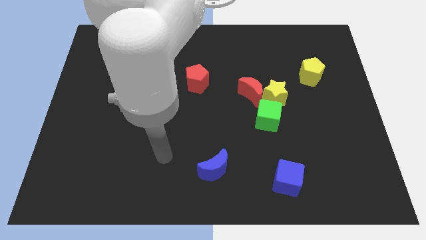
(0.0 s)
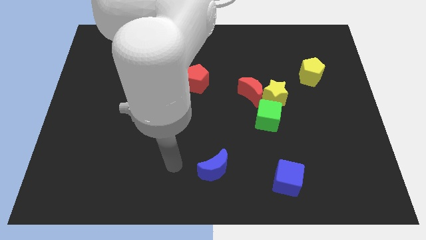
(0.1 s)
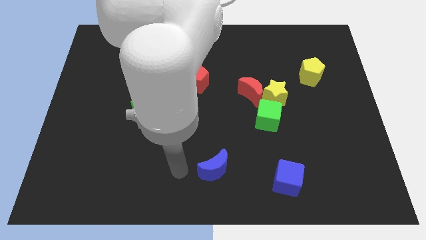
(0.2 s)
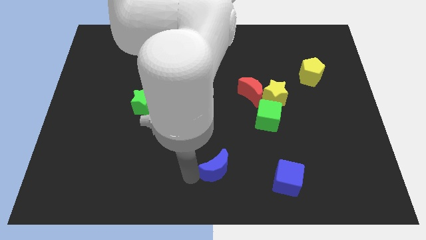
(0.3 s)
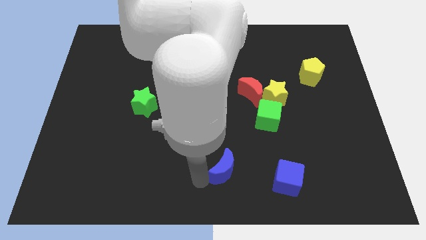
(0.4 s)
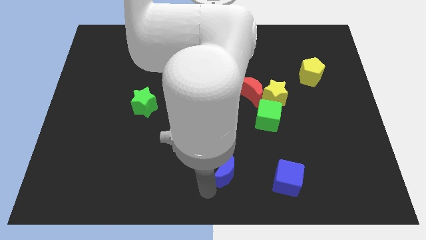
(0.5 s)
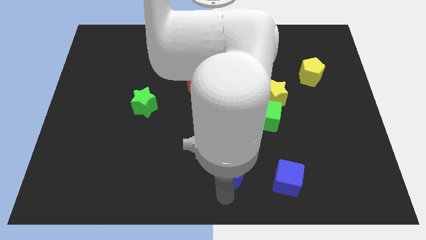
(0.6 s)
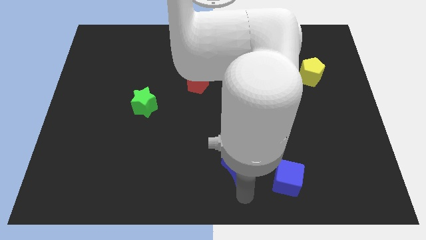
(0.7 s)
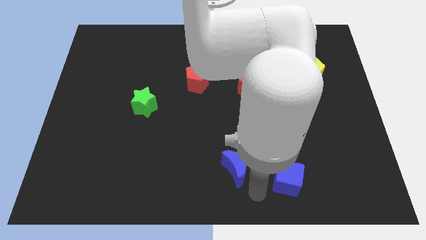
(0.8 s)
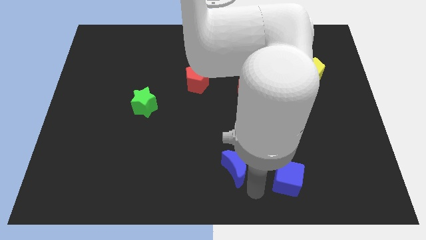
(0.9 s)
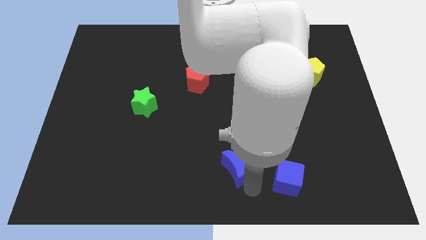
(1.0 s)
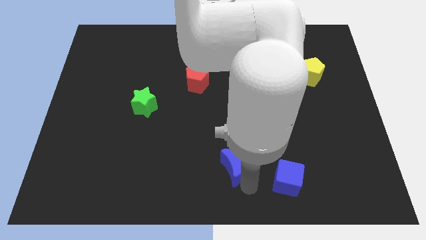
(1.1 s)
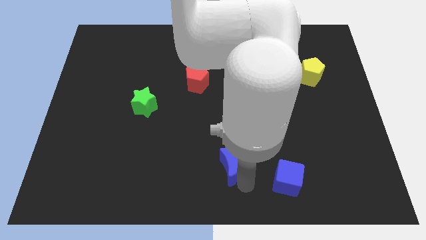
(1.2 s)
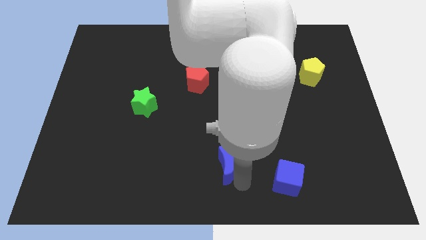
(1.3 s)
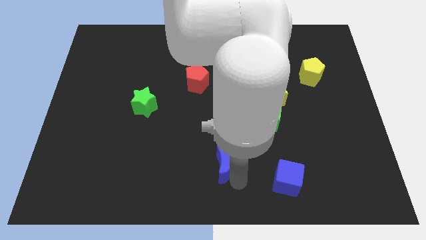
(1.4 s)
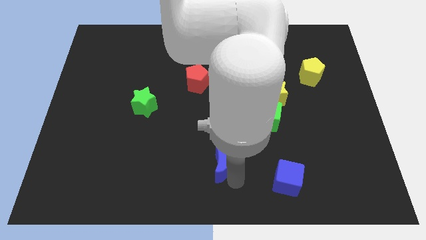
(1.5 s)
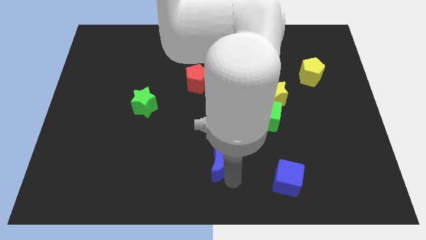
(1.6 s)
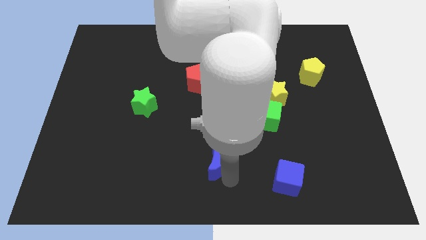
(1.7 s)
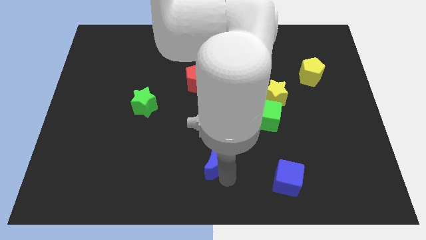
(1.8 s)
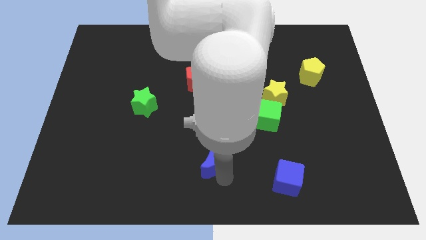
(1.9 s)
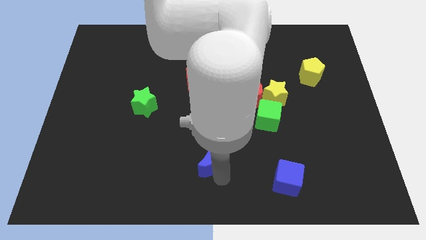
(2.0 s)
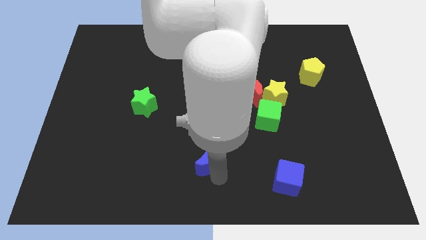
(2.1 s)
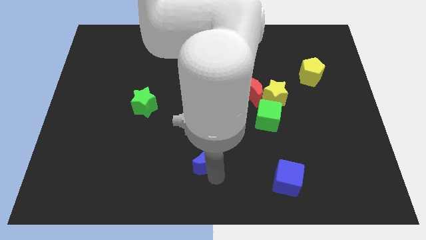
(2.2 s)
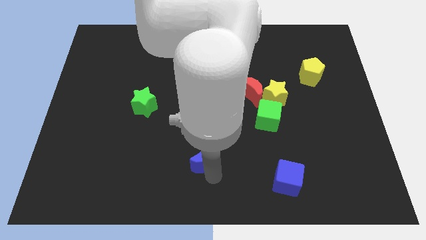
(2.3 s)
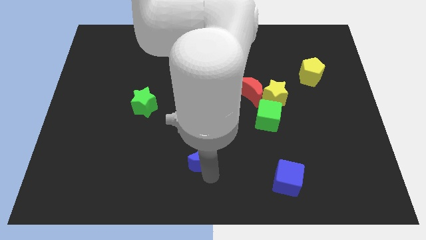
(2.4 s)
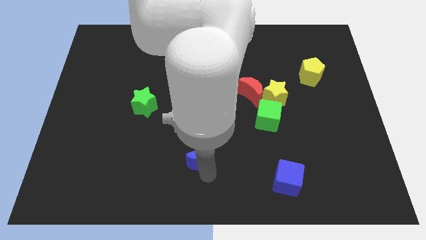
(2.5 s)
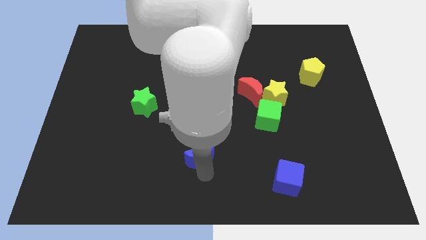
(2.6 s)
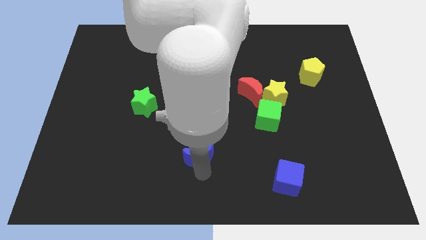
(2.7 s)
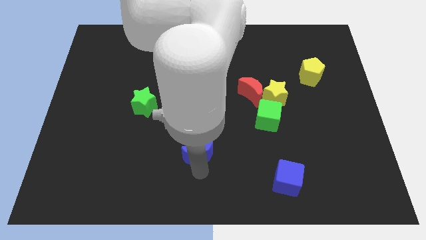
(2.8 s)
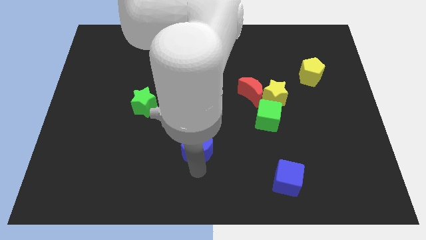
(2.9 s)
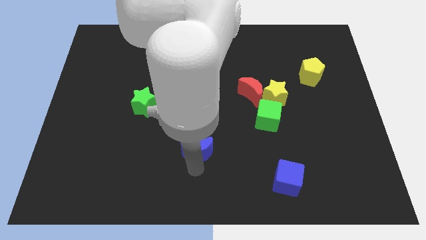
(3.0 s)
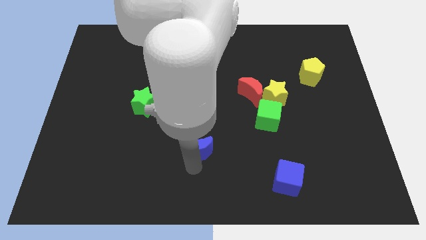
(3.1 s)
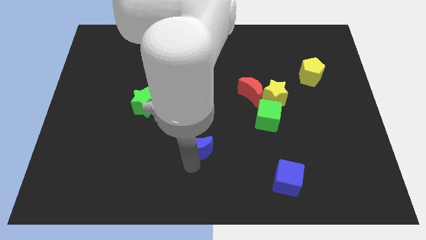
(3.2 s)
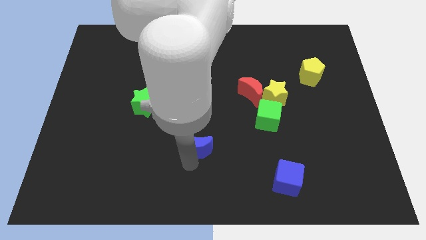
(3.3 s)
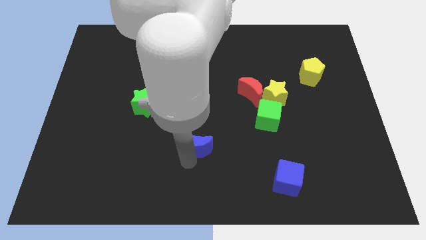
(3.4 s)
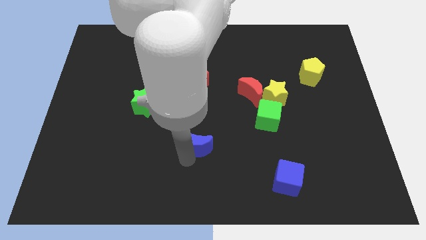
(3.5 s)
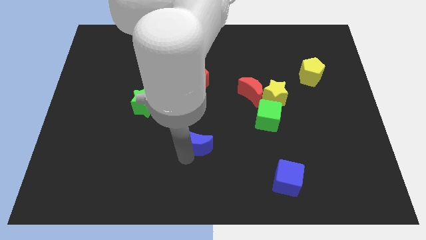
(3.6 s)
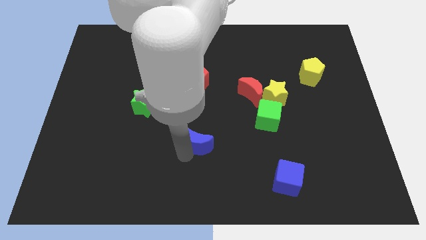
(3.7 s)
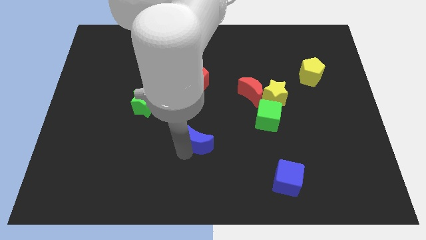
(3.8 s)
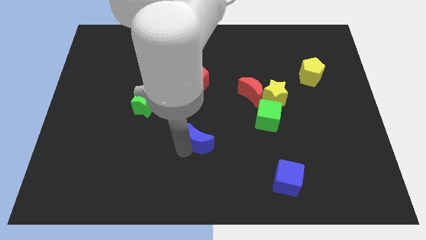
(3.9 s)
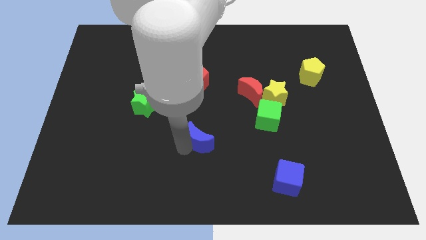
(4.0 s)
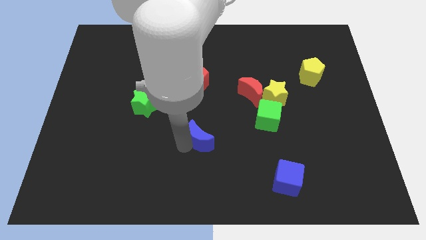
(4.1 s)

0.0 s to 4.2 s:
slightly move the blue moon up

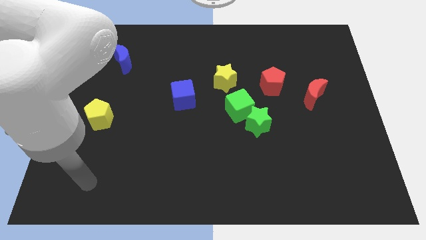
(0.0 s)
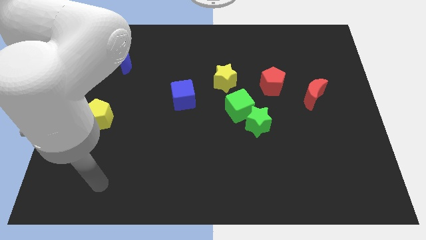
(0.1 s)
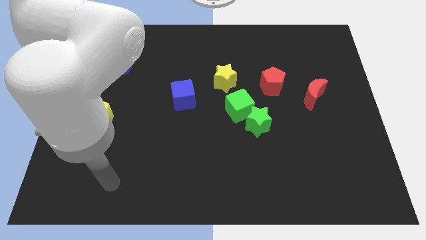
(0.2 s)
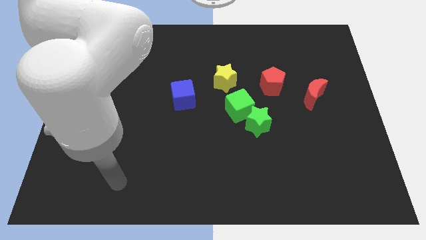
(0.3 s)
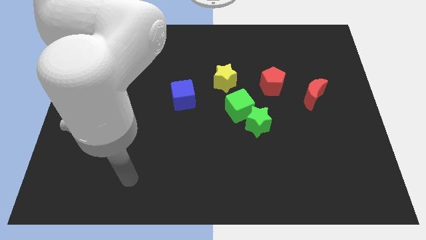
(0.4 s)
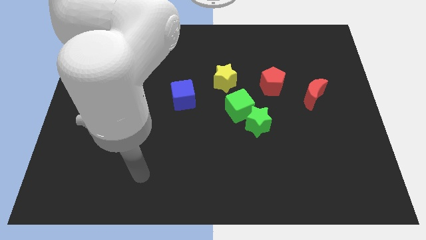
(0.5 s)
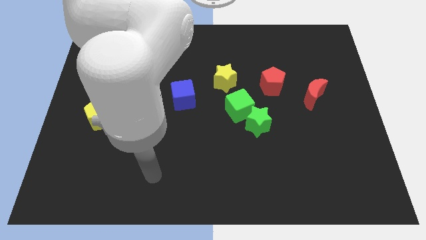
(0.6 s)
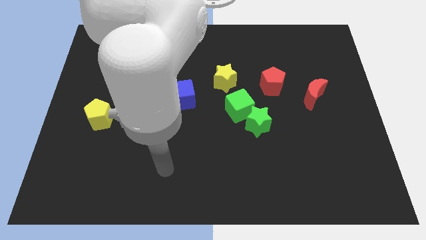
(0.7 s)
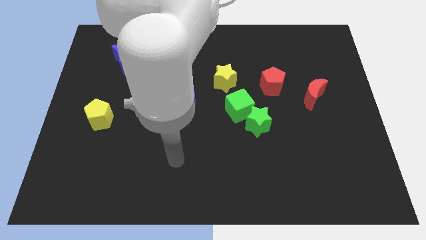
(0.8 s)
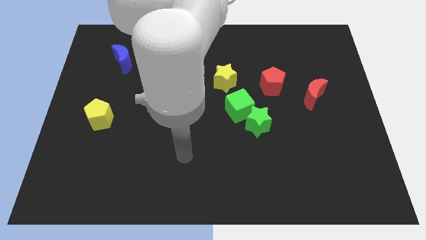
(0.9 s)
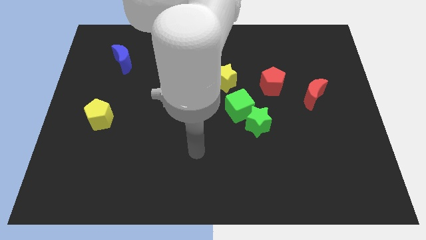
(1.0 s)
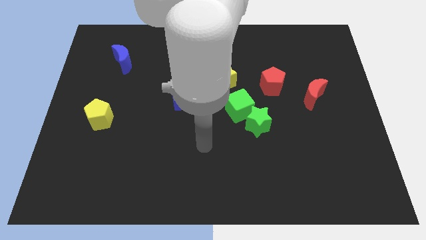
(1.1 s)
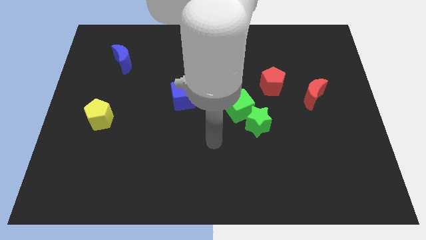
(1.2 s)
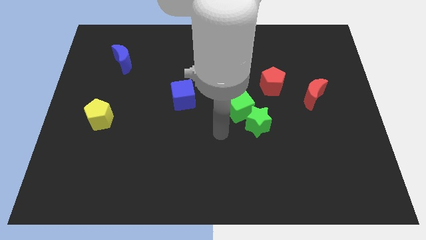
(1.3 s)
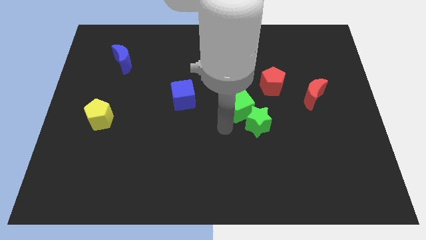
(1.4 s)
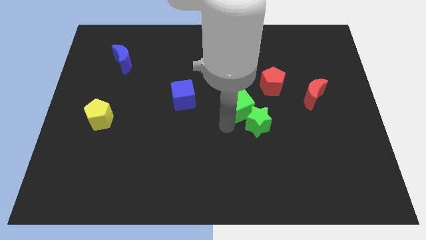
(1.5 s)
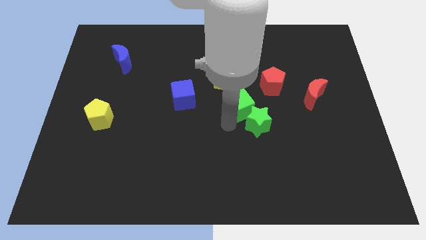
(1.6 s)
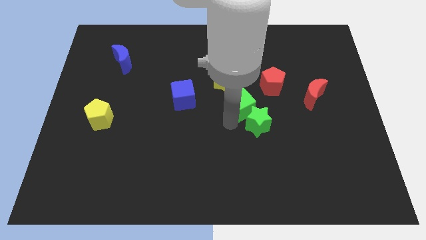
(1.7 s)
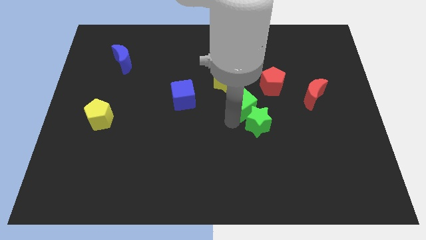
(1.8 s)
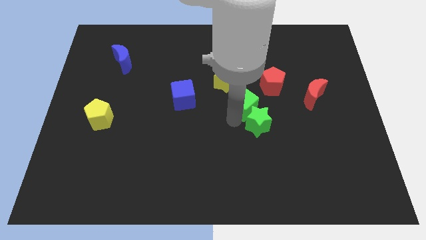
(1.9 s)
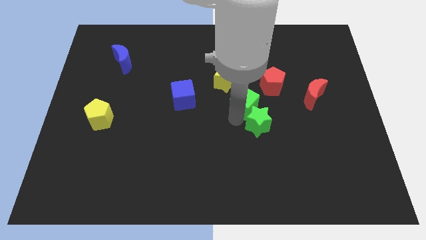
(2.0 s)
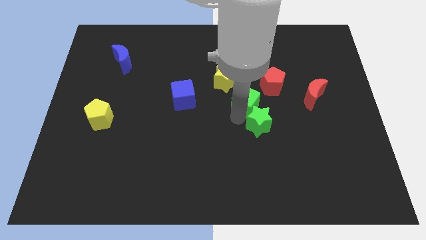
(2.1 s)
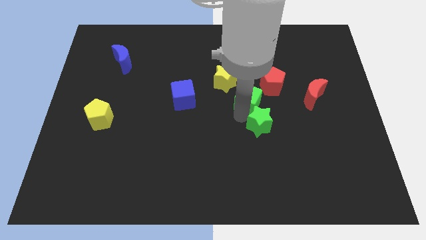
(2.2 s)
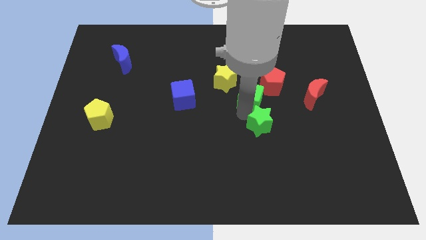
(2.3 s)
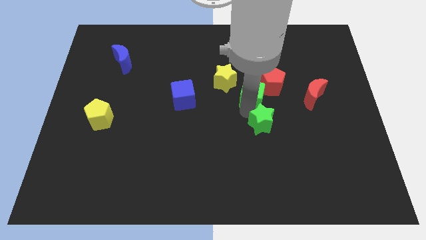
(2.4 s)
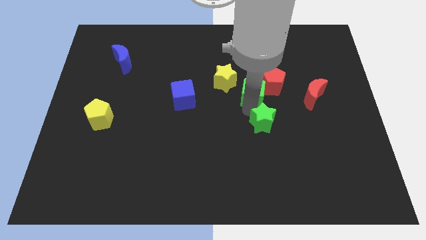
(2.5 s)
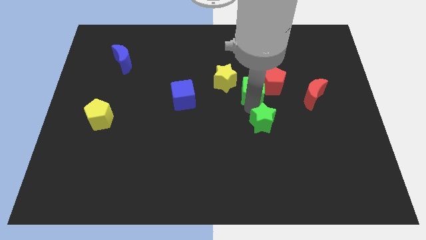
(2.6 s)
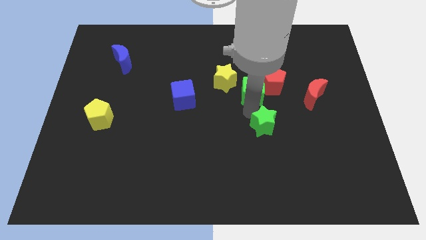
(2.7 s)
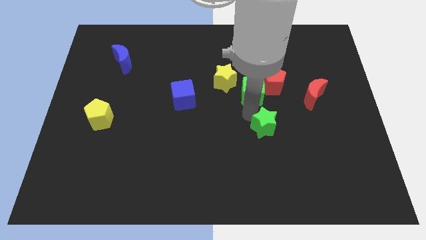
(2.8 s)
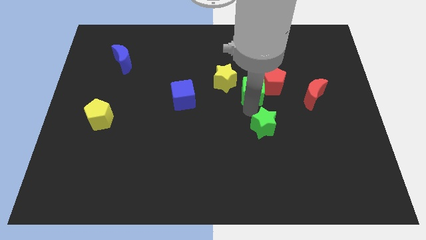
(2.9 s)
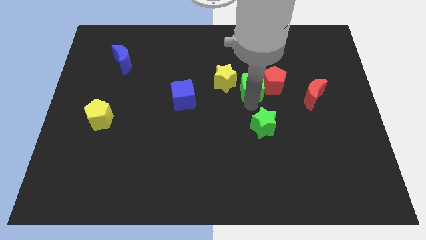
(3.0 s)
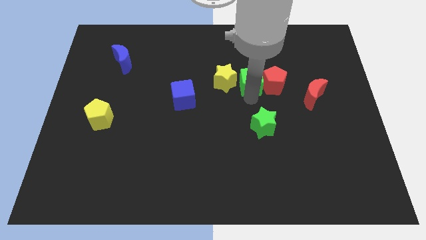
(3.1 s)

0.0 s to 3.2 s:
slide the green cube slightly up and to the right

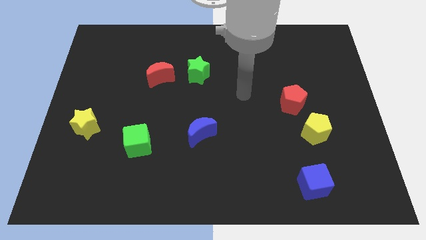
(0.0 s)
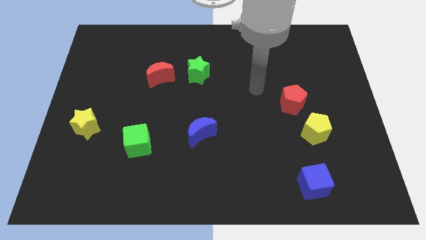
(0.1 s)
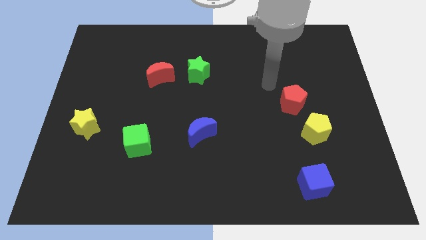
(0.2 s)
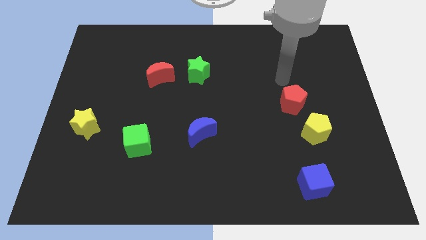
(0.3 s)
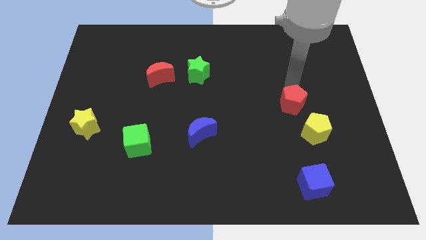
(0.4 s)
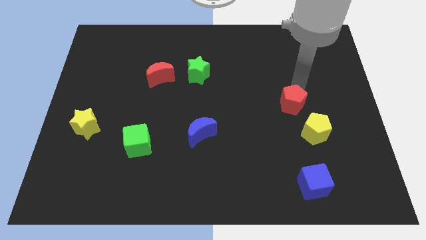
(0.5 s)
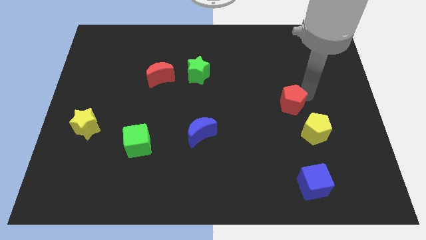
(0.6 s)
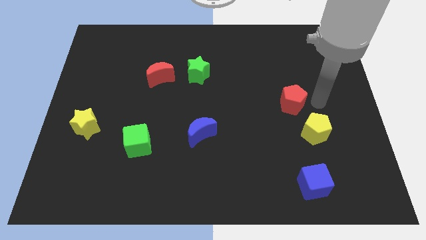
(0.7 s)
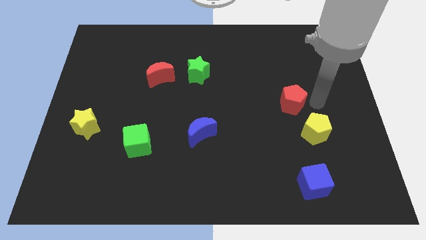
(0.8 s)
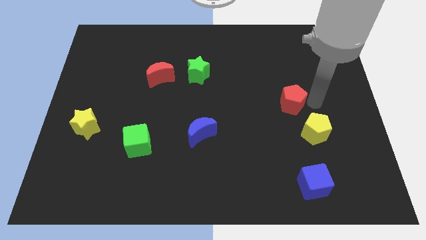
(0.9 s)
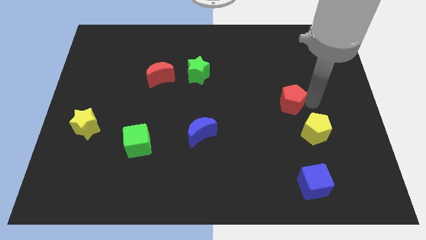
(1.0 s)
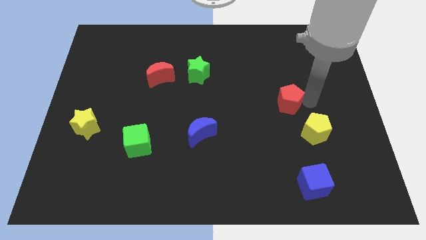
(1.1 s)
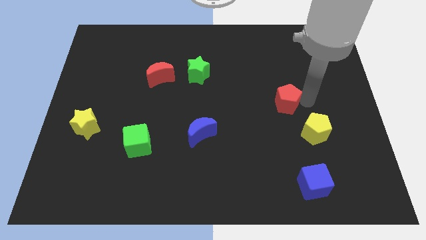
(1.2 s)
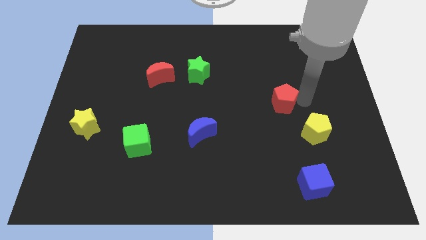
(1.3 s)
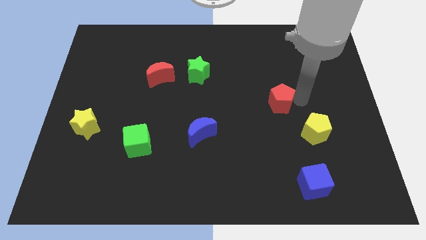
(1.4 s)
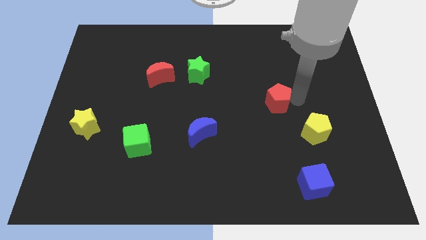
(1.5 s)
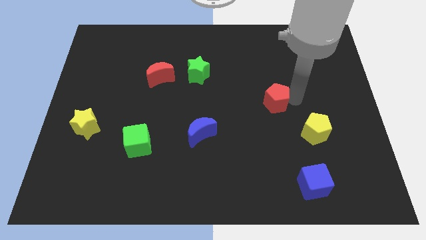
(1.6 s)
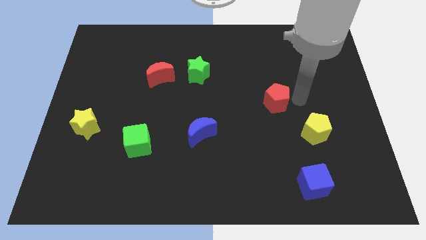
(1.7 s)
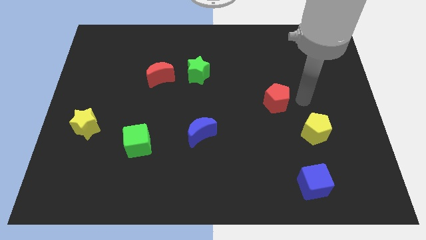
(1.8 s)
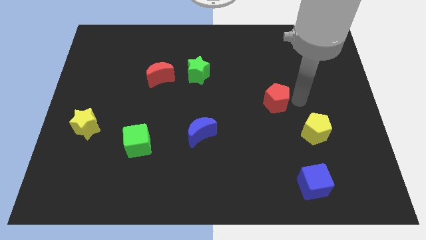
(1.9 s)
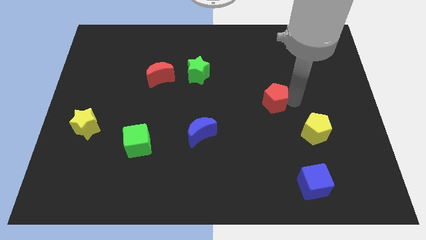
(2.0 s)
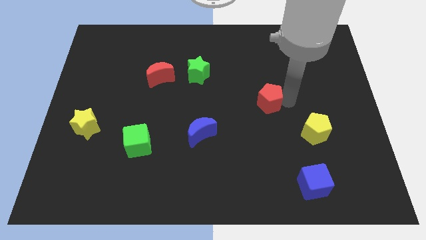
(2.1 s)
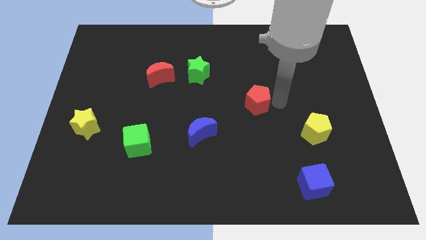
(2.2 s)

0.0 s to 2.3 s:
move the red pentagon a bit to the left
